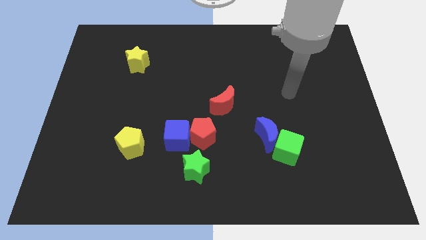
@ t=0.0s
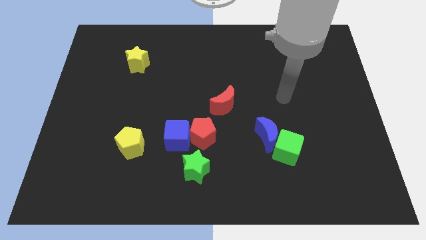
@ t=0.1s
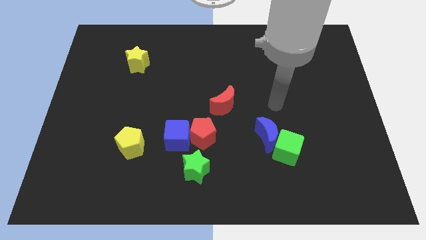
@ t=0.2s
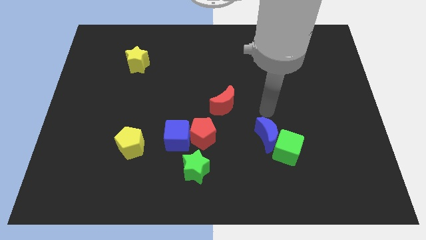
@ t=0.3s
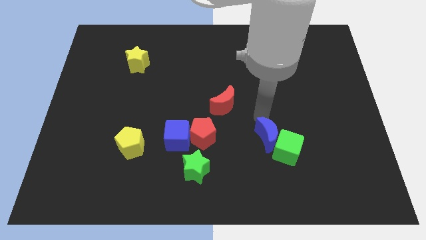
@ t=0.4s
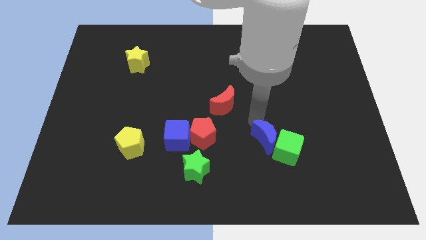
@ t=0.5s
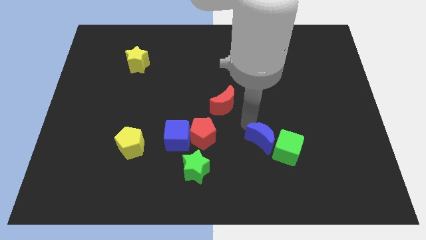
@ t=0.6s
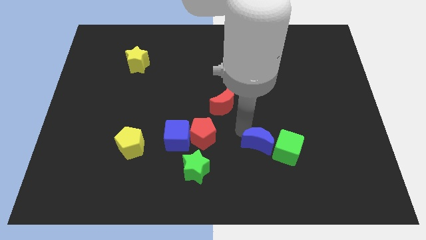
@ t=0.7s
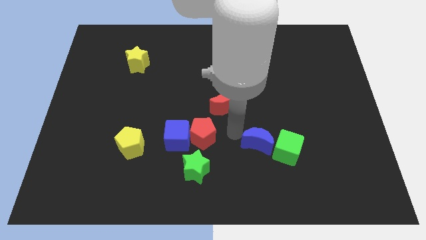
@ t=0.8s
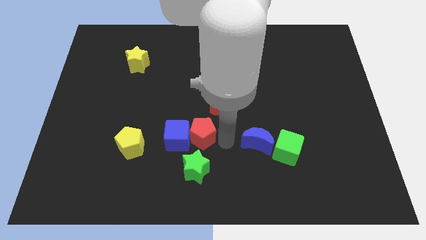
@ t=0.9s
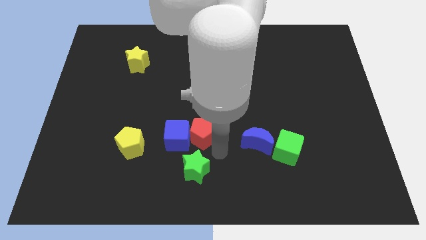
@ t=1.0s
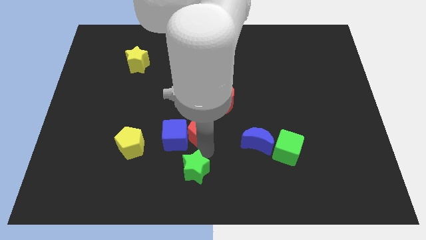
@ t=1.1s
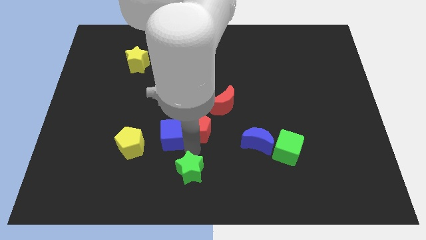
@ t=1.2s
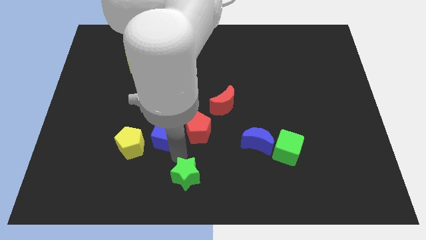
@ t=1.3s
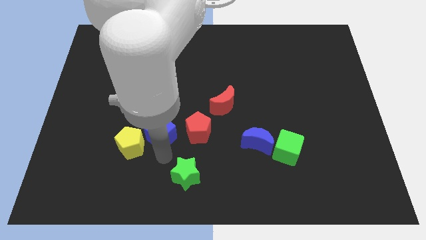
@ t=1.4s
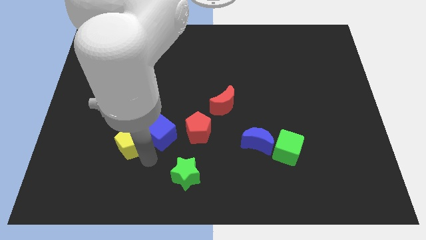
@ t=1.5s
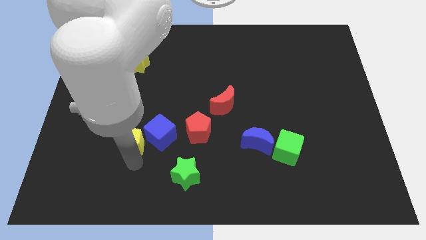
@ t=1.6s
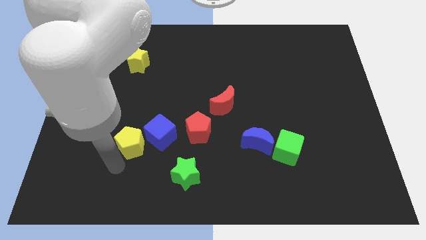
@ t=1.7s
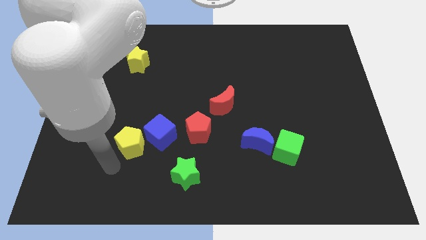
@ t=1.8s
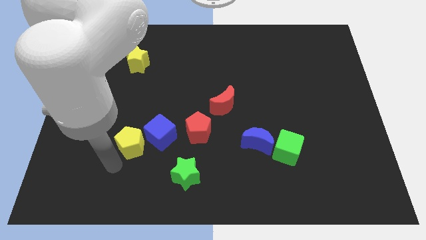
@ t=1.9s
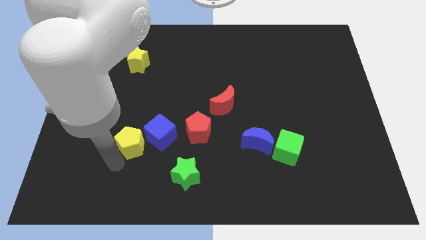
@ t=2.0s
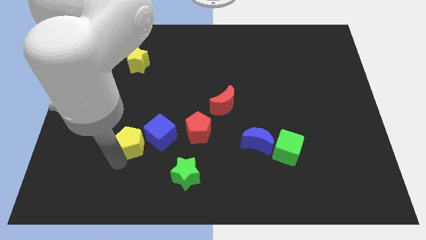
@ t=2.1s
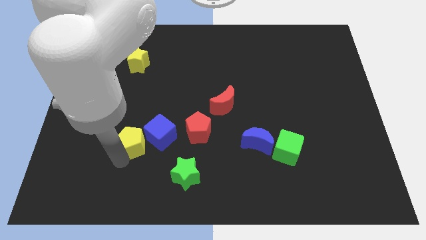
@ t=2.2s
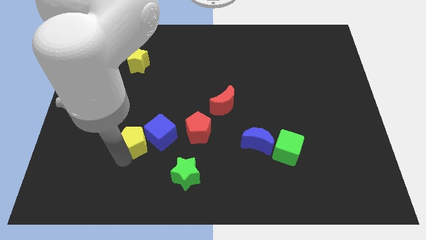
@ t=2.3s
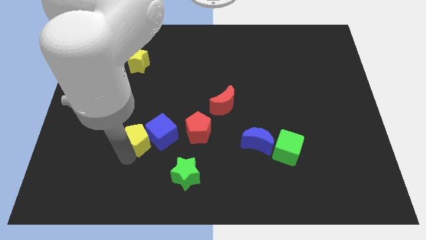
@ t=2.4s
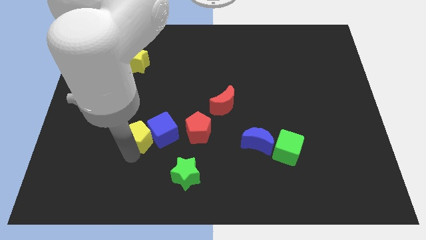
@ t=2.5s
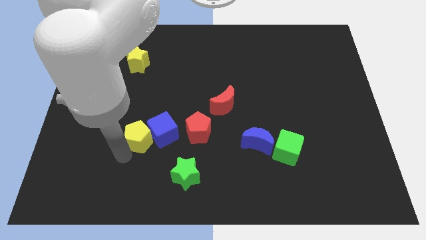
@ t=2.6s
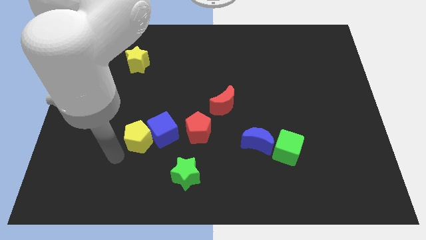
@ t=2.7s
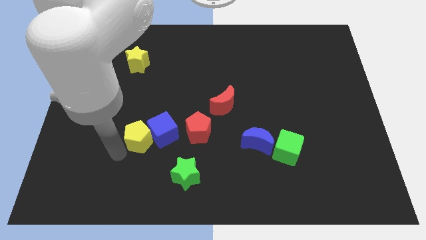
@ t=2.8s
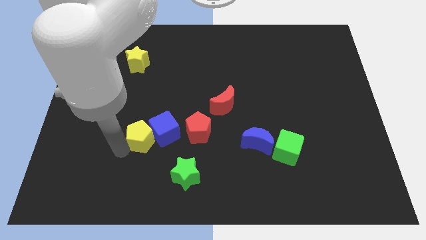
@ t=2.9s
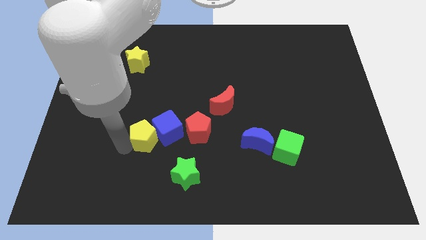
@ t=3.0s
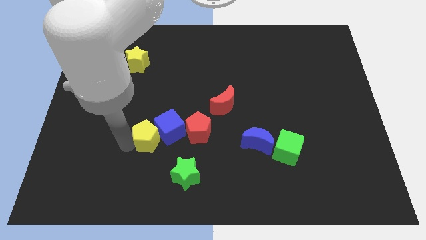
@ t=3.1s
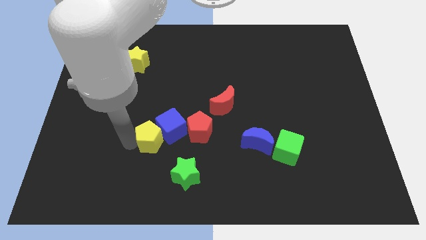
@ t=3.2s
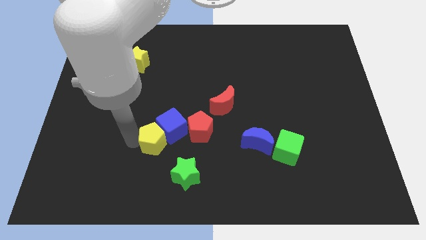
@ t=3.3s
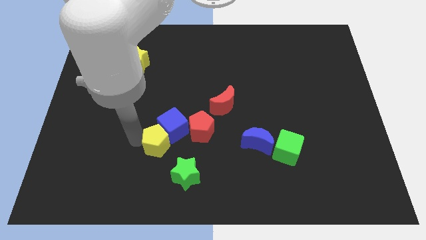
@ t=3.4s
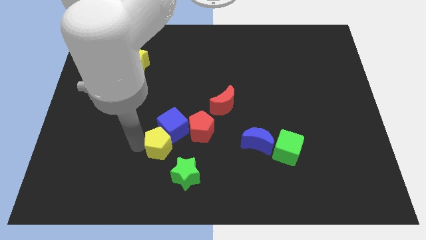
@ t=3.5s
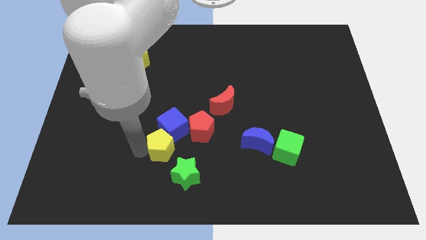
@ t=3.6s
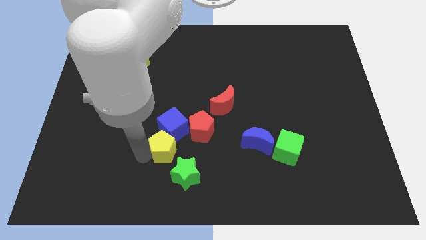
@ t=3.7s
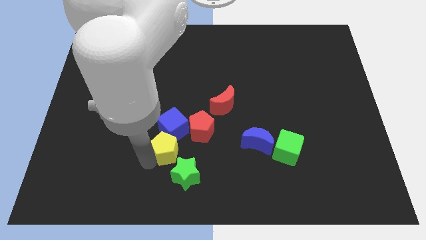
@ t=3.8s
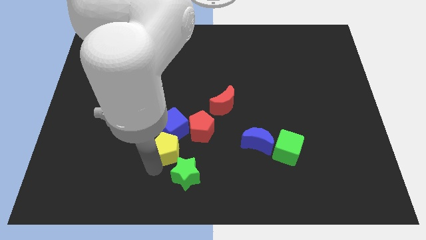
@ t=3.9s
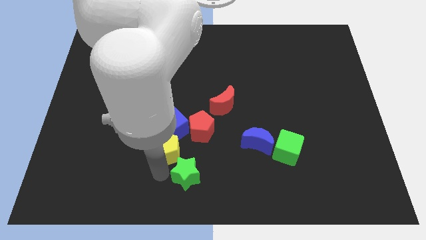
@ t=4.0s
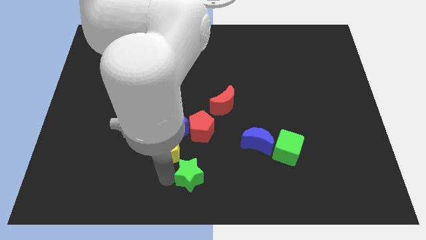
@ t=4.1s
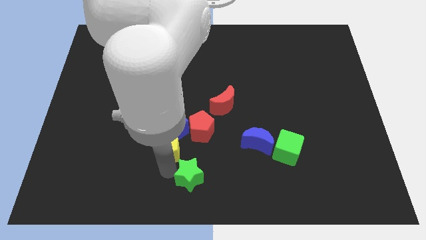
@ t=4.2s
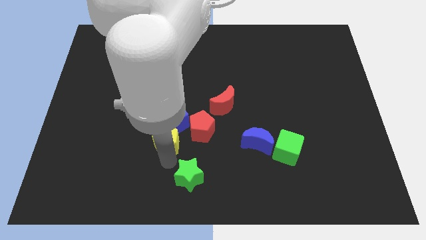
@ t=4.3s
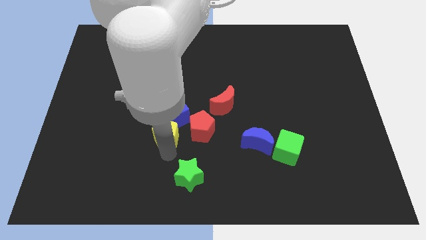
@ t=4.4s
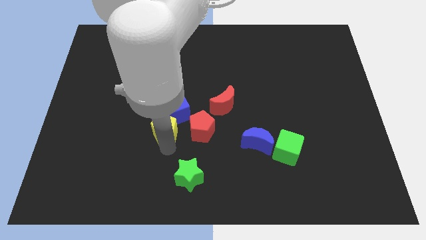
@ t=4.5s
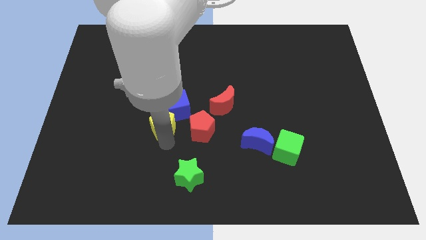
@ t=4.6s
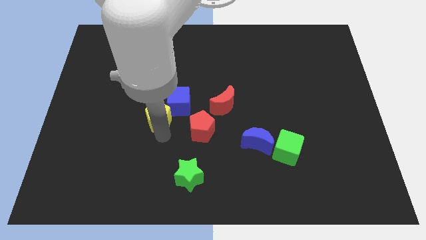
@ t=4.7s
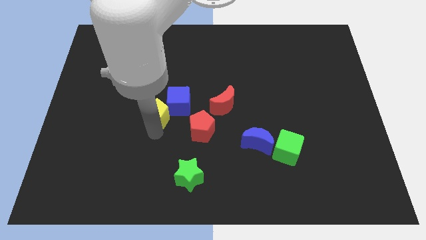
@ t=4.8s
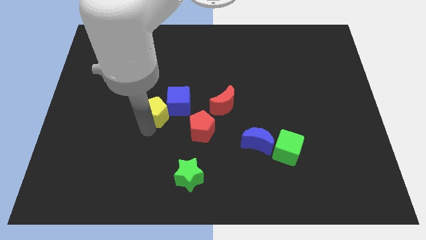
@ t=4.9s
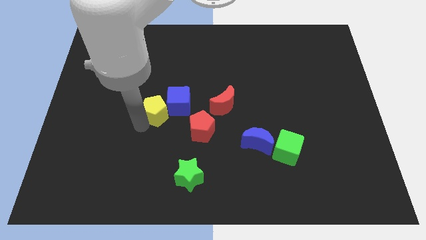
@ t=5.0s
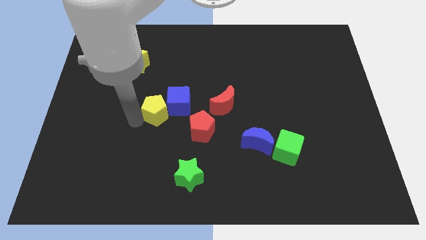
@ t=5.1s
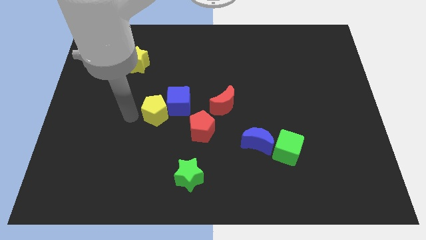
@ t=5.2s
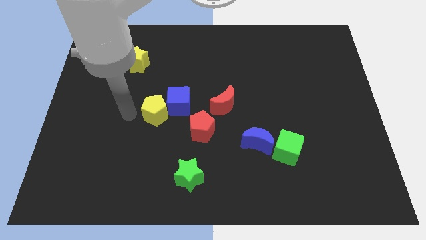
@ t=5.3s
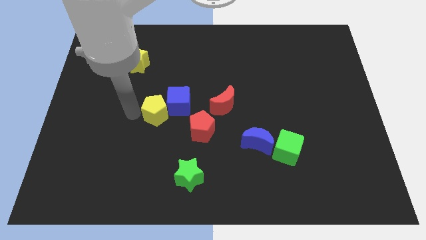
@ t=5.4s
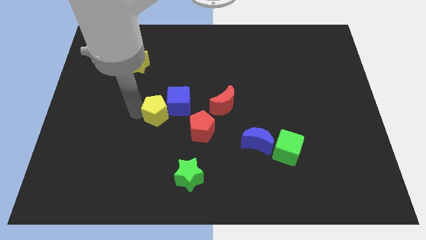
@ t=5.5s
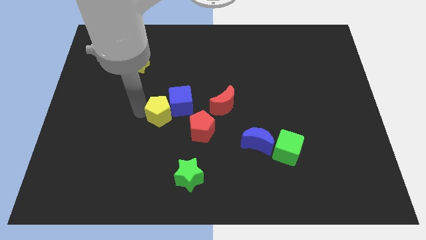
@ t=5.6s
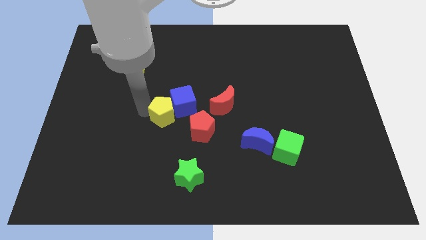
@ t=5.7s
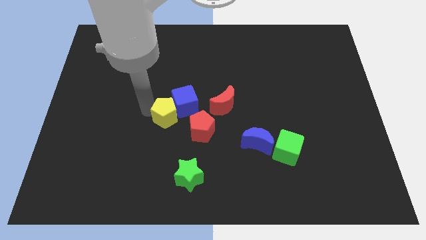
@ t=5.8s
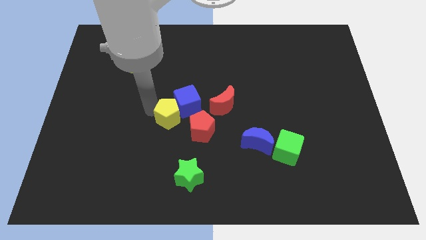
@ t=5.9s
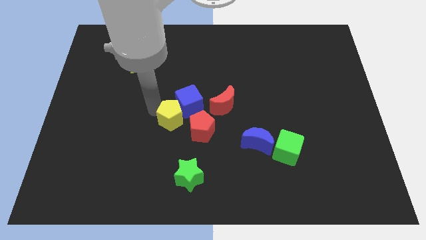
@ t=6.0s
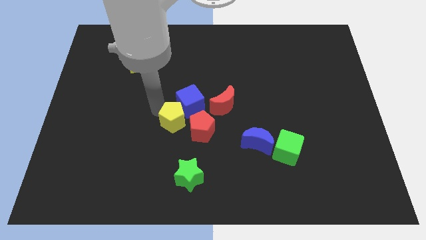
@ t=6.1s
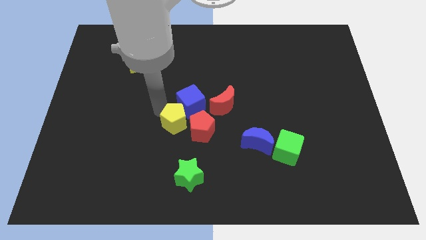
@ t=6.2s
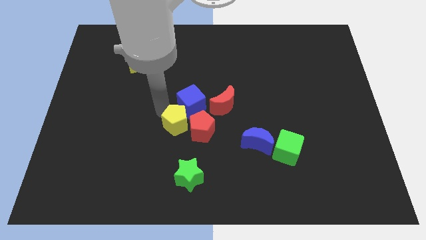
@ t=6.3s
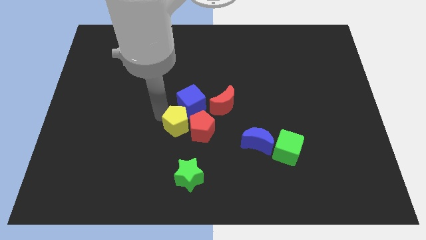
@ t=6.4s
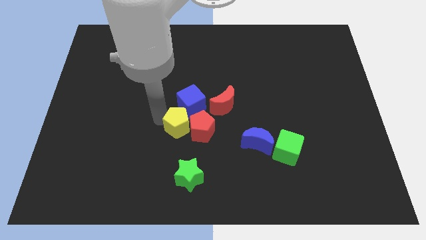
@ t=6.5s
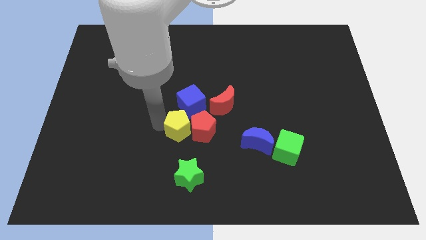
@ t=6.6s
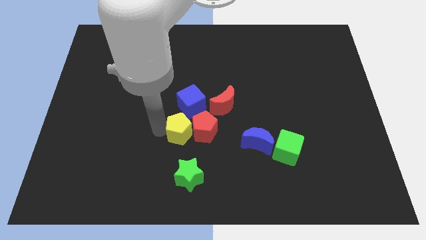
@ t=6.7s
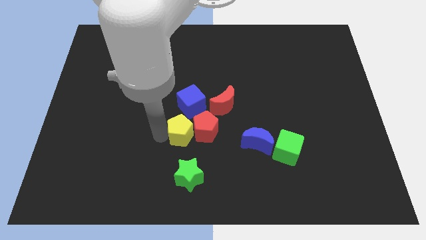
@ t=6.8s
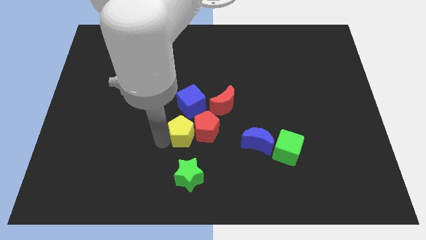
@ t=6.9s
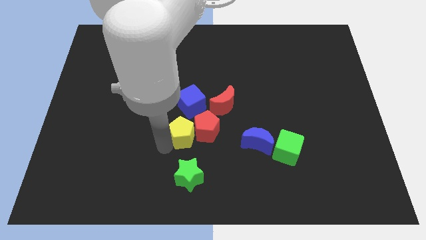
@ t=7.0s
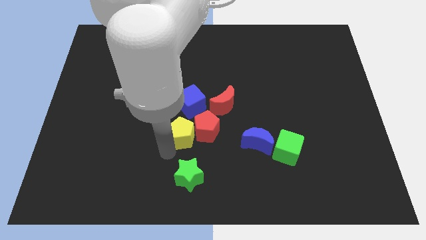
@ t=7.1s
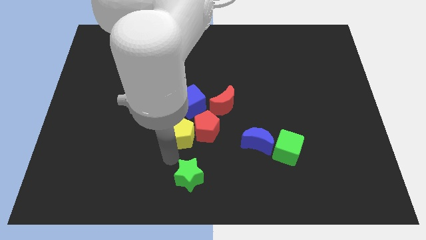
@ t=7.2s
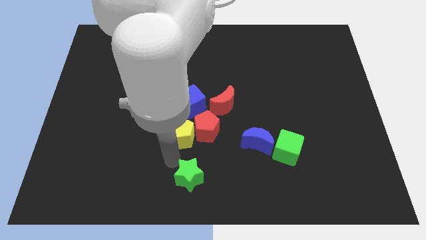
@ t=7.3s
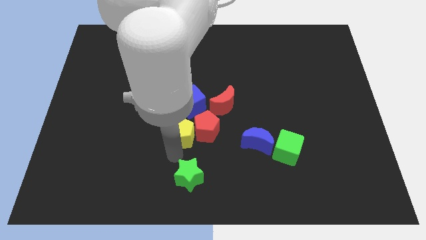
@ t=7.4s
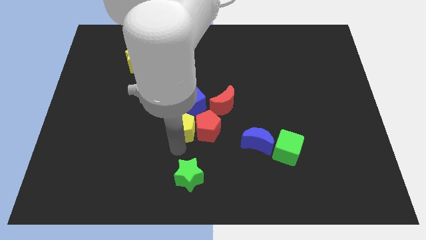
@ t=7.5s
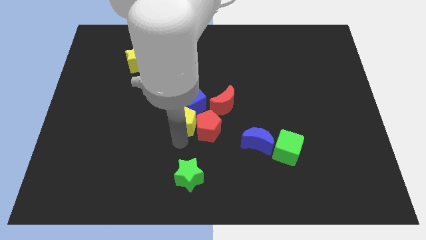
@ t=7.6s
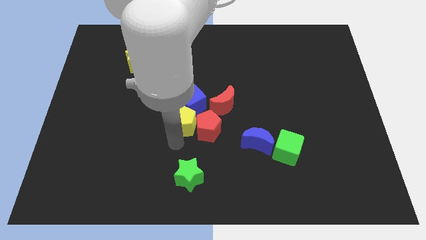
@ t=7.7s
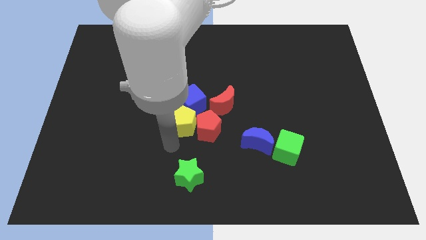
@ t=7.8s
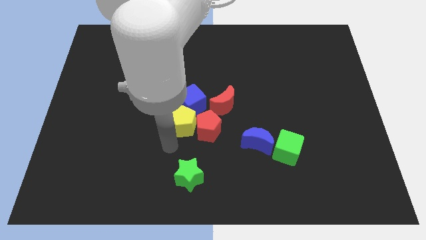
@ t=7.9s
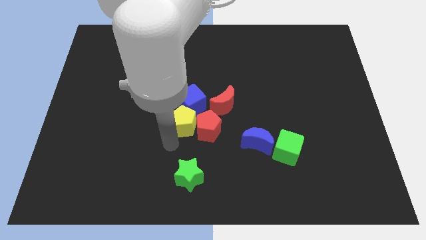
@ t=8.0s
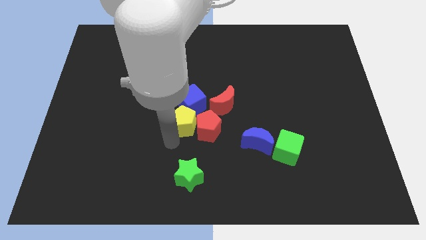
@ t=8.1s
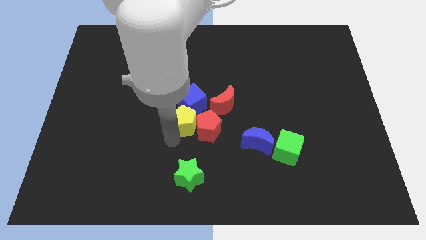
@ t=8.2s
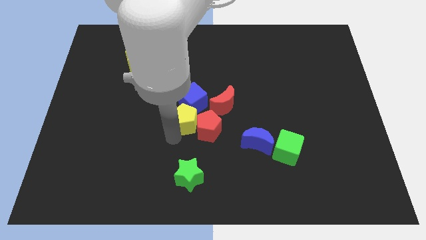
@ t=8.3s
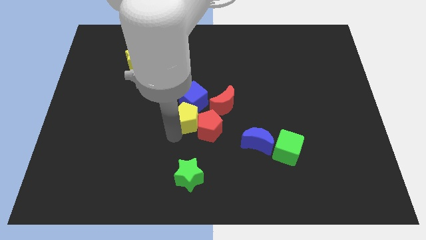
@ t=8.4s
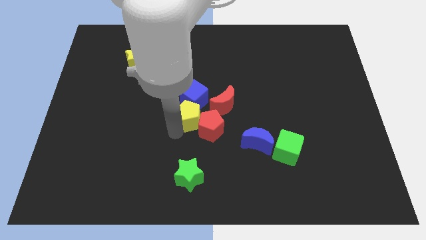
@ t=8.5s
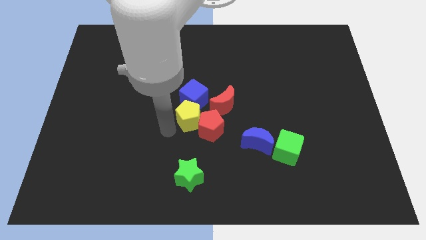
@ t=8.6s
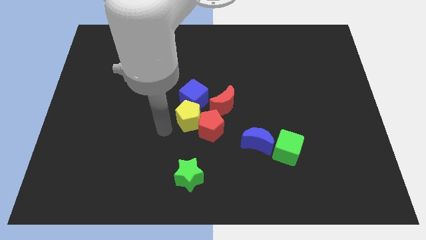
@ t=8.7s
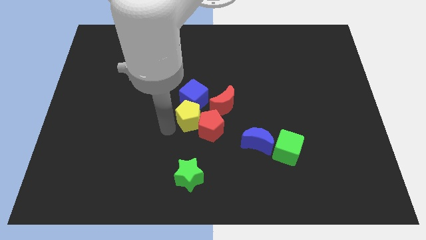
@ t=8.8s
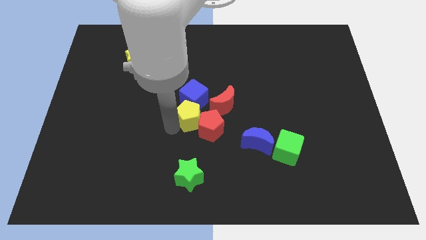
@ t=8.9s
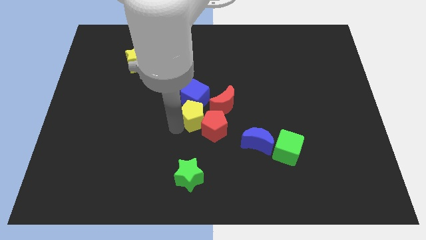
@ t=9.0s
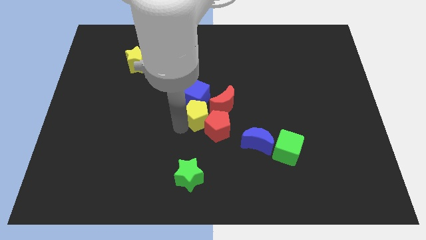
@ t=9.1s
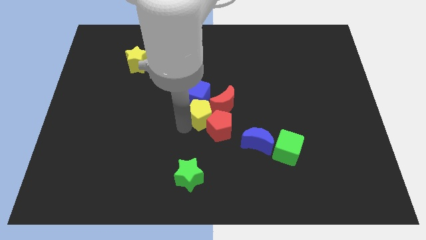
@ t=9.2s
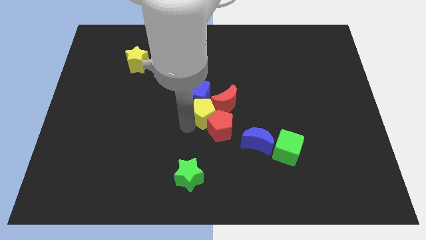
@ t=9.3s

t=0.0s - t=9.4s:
slide the yellow pentagon to the red moon
